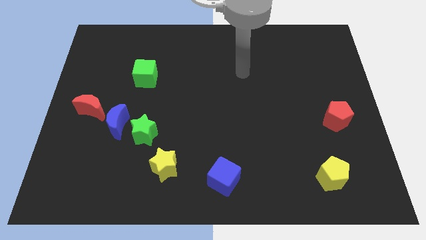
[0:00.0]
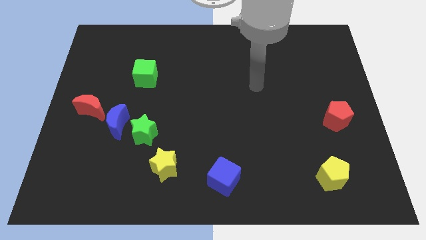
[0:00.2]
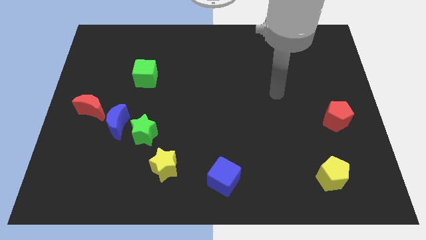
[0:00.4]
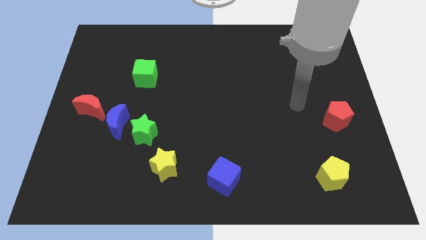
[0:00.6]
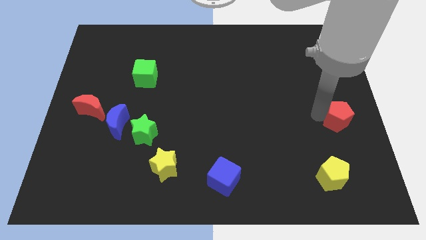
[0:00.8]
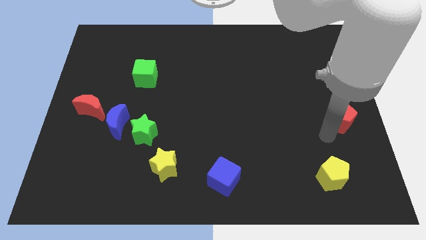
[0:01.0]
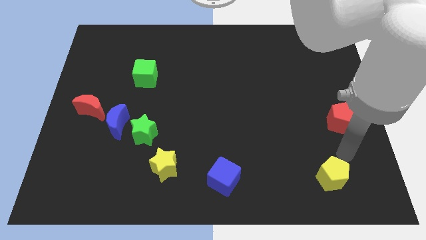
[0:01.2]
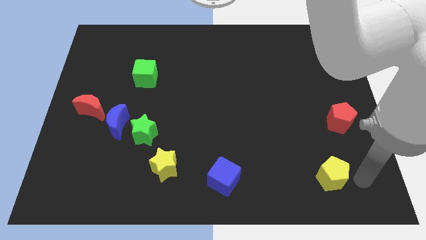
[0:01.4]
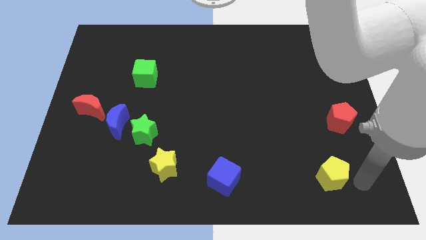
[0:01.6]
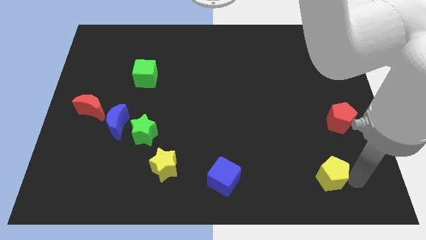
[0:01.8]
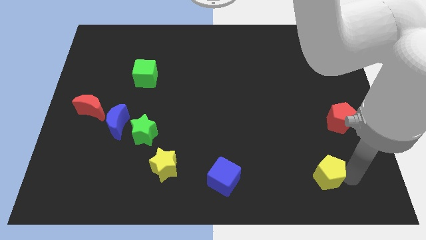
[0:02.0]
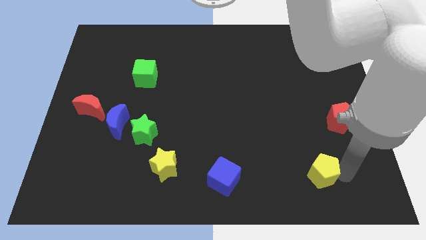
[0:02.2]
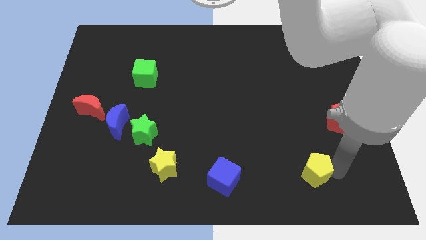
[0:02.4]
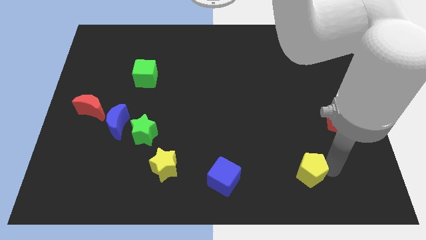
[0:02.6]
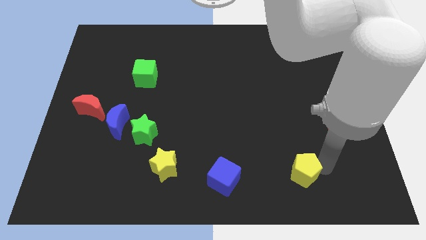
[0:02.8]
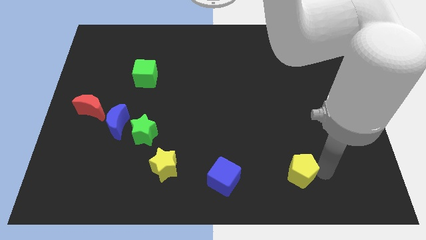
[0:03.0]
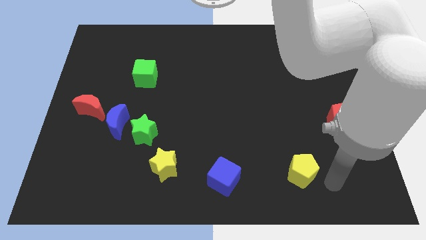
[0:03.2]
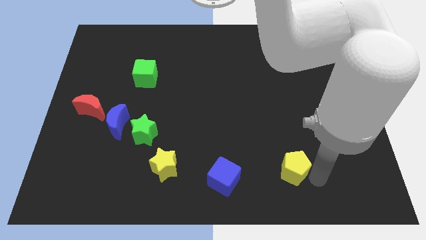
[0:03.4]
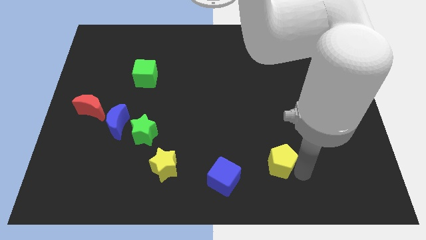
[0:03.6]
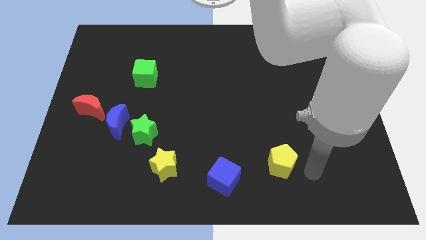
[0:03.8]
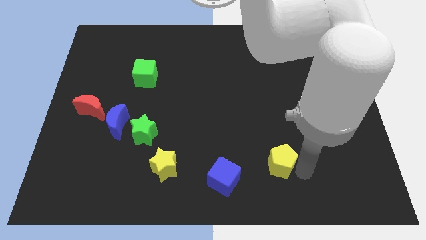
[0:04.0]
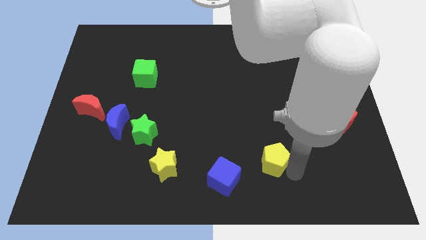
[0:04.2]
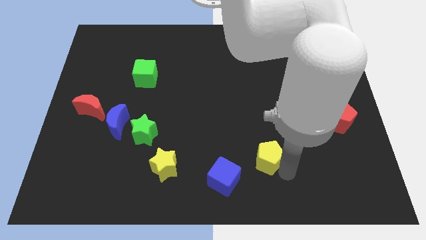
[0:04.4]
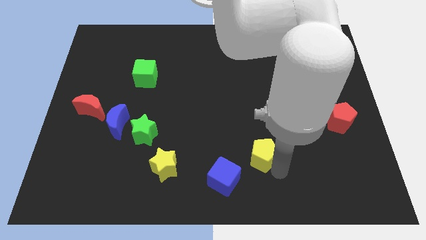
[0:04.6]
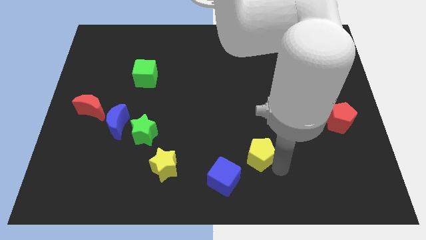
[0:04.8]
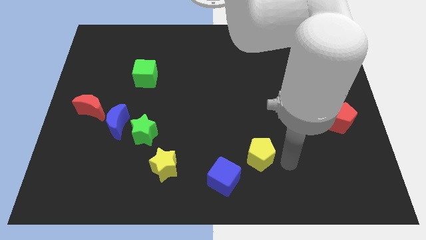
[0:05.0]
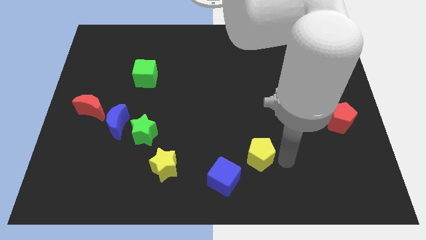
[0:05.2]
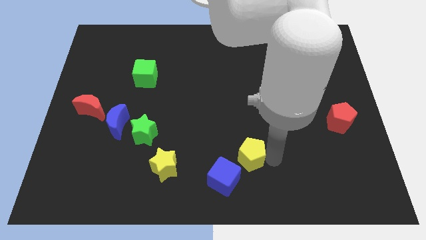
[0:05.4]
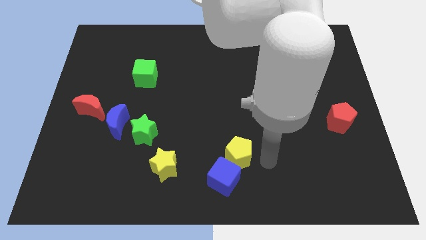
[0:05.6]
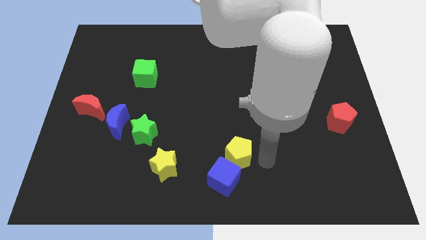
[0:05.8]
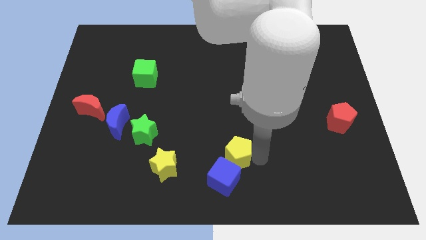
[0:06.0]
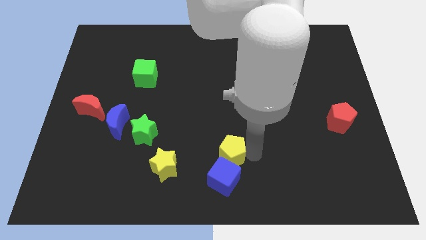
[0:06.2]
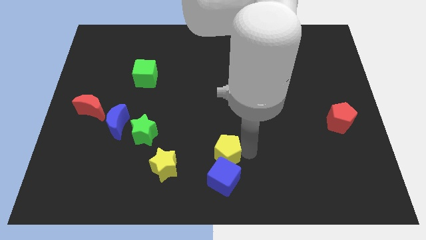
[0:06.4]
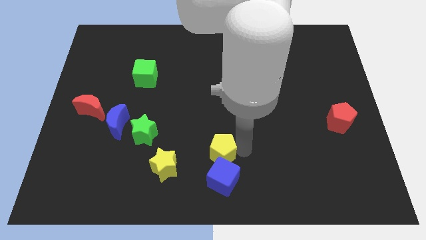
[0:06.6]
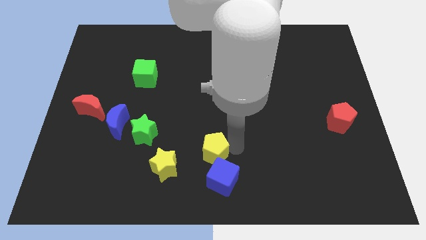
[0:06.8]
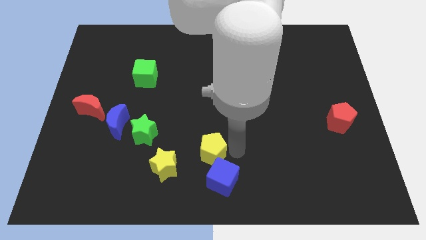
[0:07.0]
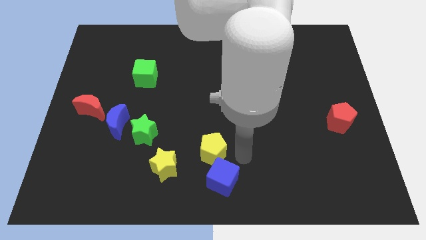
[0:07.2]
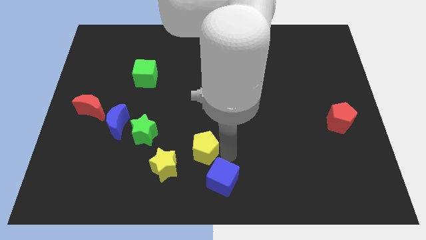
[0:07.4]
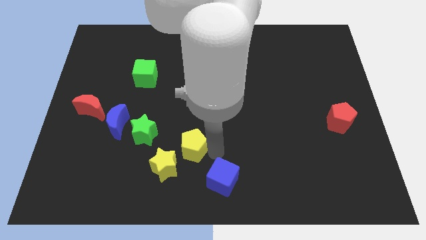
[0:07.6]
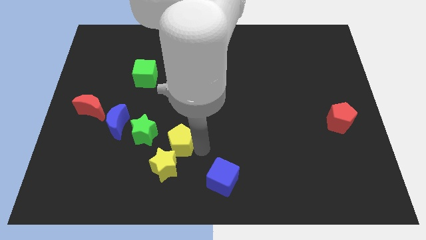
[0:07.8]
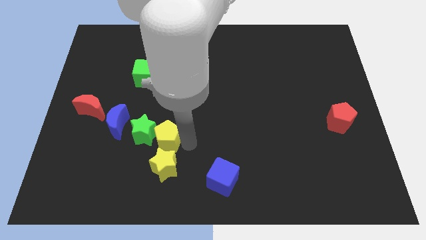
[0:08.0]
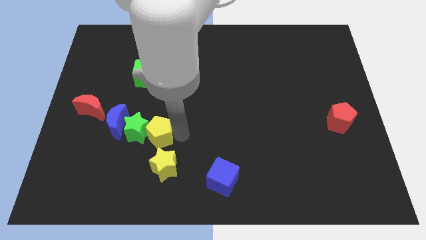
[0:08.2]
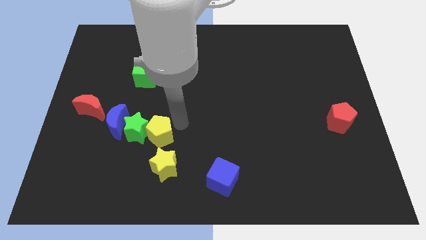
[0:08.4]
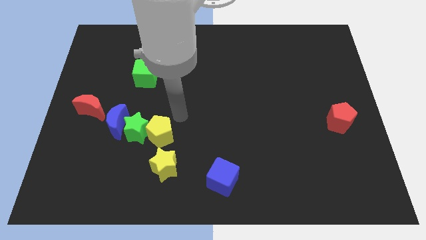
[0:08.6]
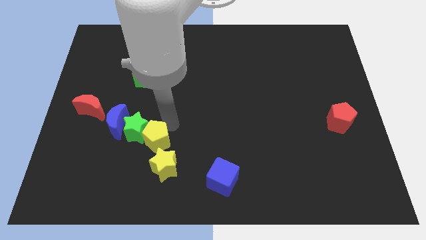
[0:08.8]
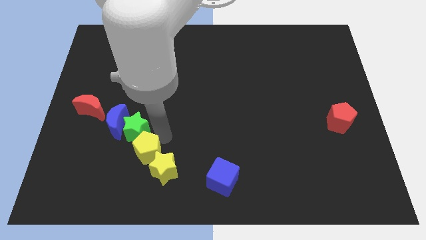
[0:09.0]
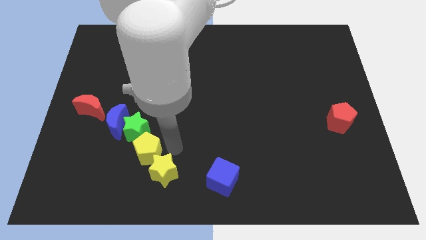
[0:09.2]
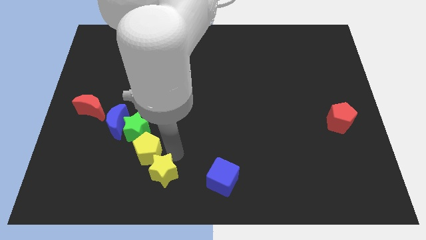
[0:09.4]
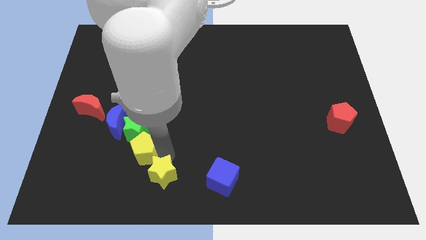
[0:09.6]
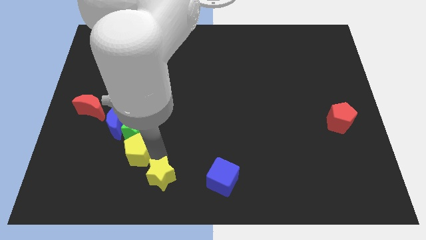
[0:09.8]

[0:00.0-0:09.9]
move the yellow pentagon diagonally down and to the left of the green star

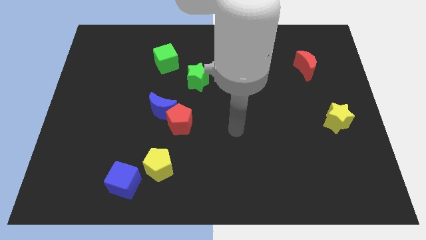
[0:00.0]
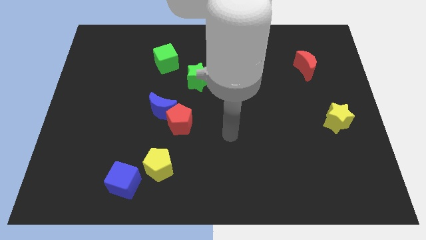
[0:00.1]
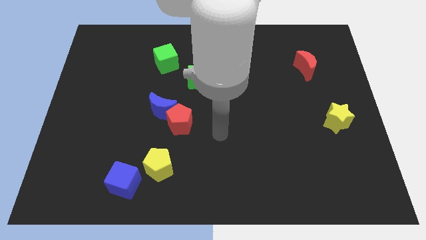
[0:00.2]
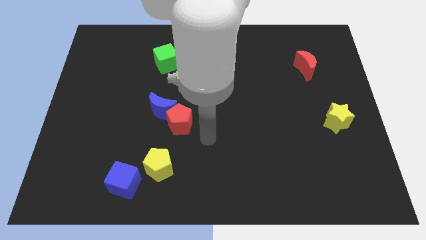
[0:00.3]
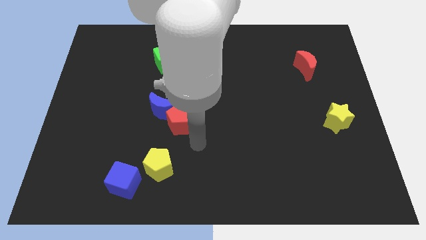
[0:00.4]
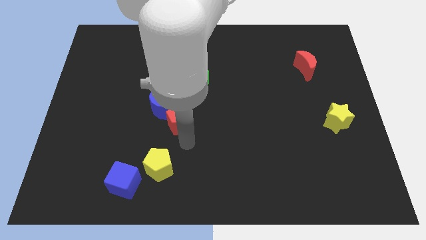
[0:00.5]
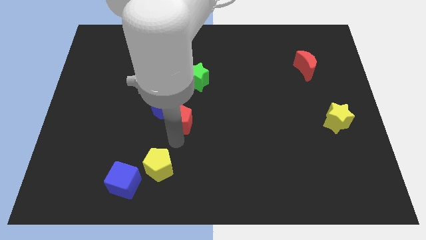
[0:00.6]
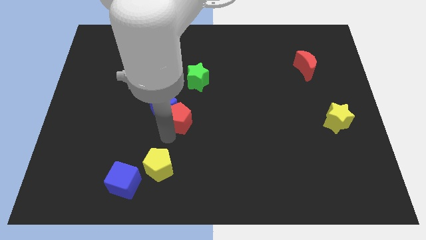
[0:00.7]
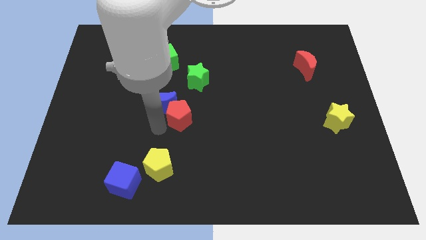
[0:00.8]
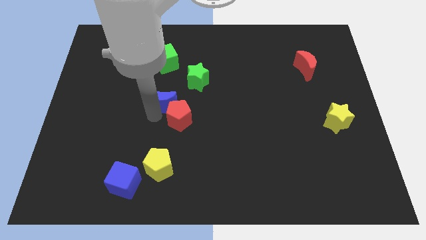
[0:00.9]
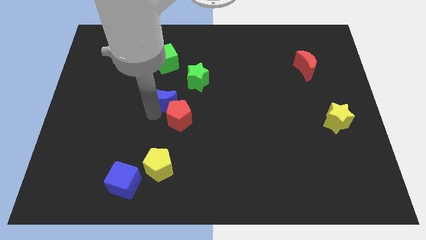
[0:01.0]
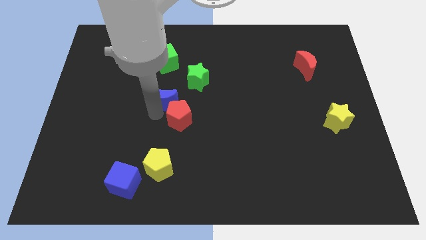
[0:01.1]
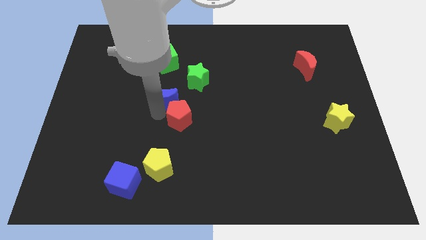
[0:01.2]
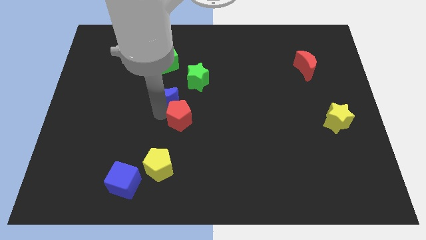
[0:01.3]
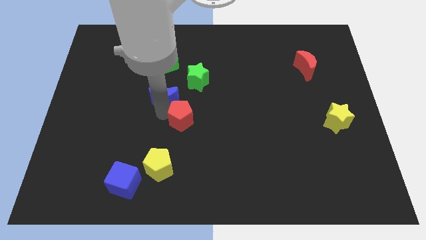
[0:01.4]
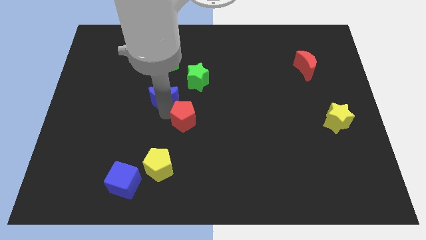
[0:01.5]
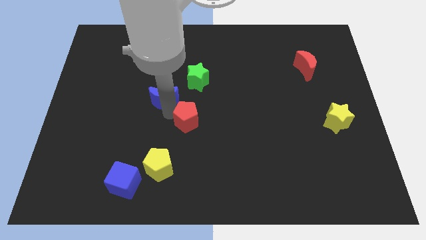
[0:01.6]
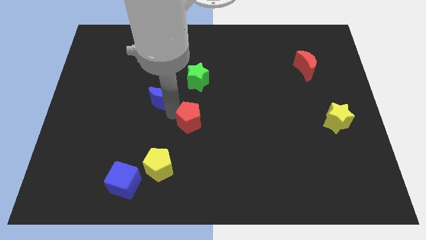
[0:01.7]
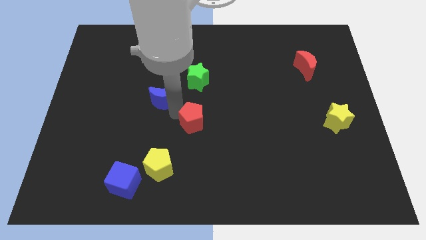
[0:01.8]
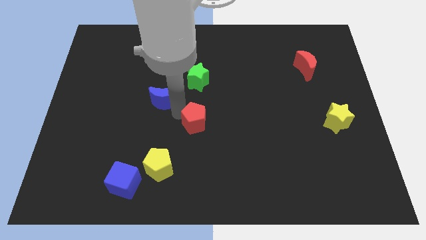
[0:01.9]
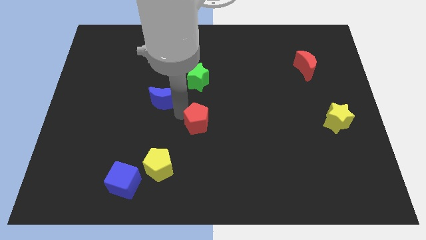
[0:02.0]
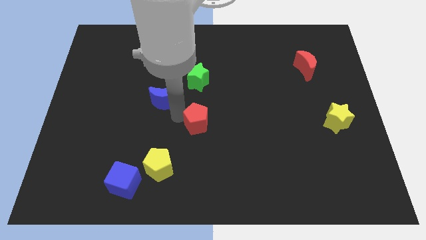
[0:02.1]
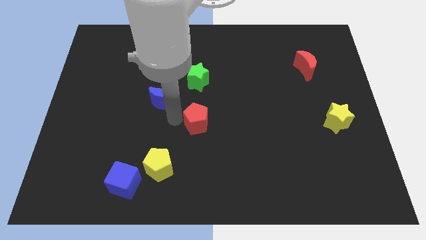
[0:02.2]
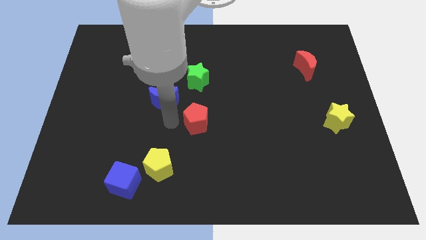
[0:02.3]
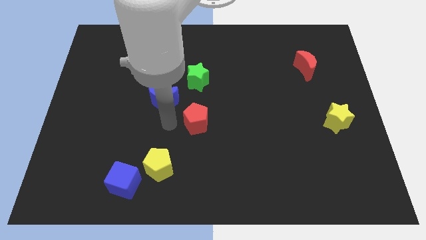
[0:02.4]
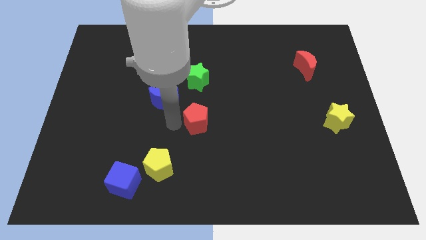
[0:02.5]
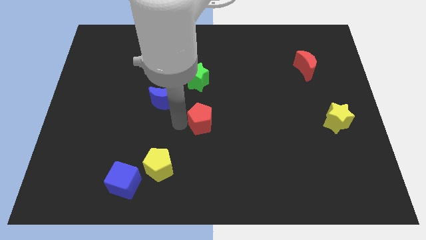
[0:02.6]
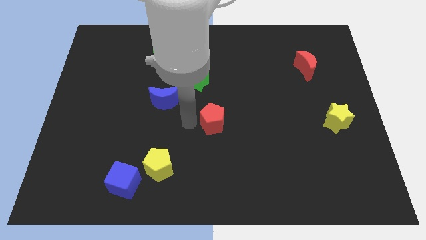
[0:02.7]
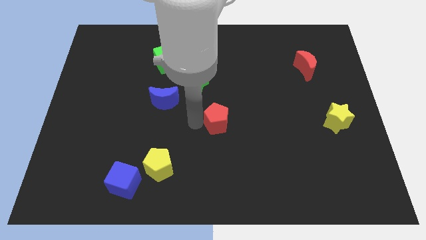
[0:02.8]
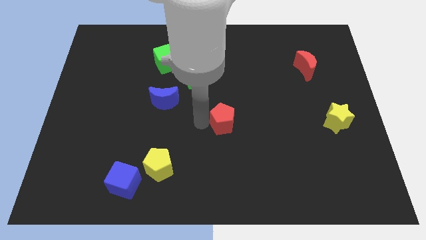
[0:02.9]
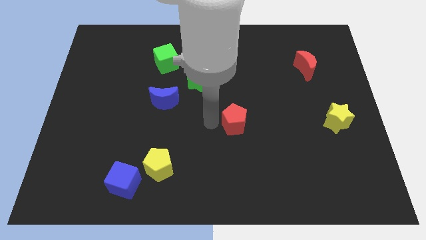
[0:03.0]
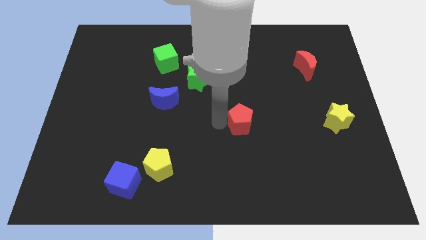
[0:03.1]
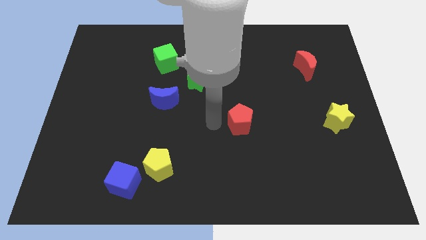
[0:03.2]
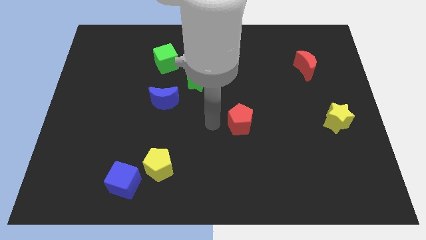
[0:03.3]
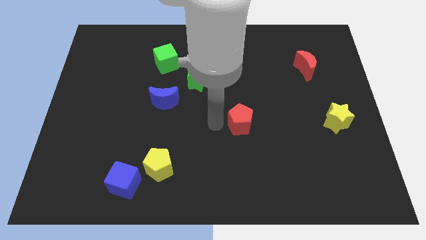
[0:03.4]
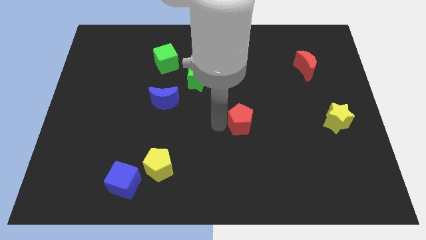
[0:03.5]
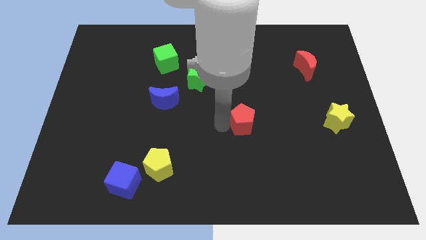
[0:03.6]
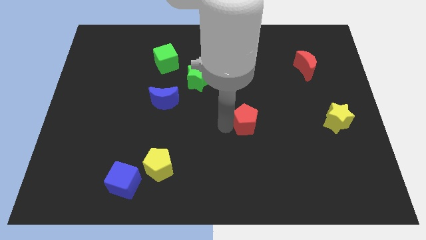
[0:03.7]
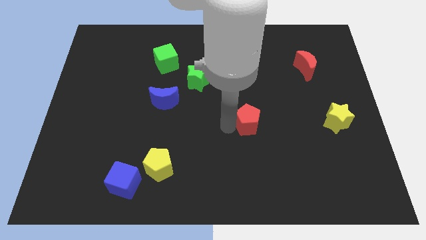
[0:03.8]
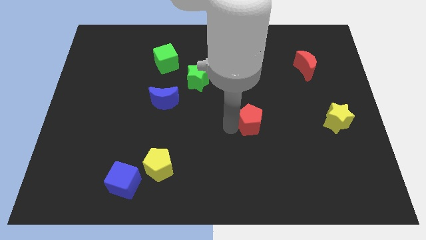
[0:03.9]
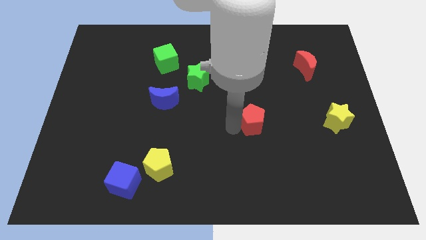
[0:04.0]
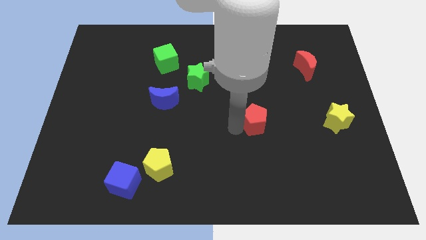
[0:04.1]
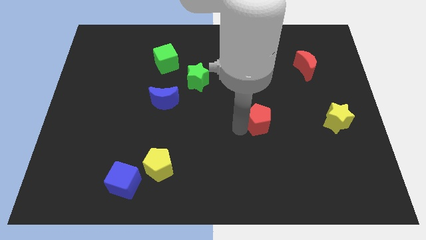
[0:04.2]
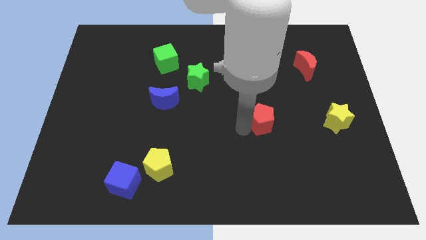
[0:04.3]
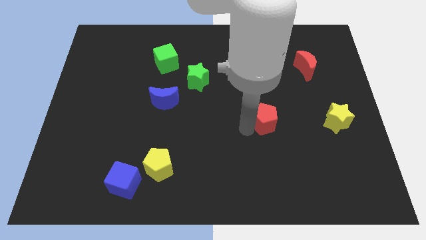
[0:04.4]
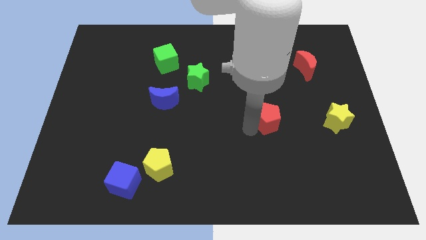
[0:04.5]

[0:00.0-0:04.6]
push the red pentagon to the left side of the yellow star
